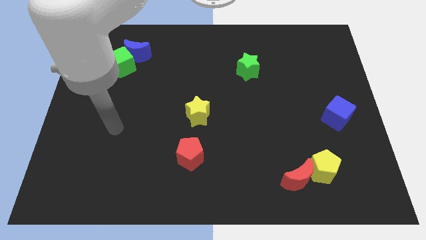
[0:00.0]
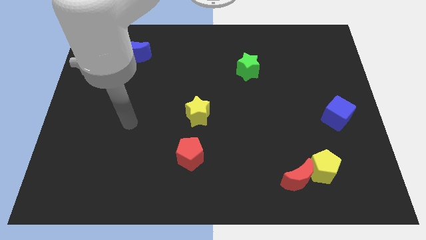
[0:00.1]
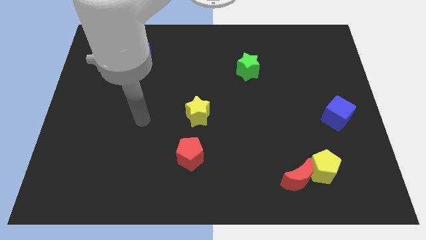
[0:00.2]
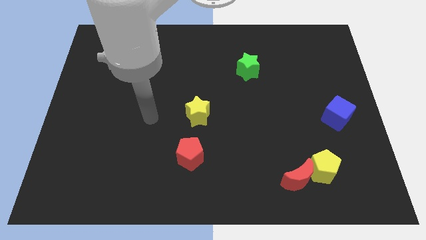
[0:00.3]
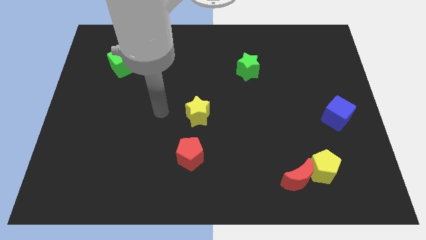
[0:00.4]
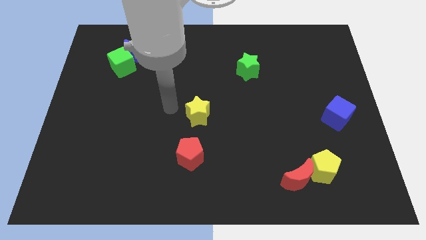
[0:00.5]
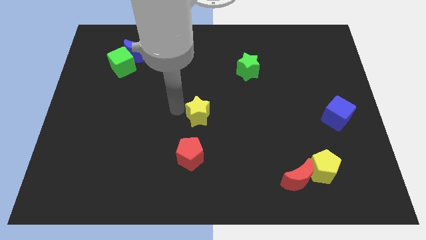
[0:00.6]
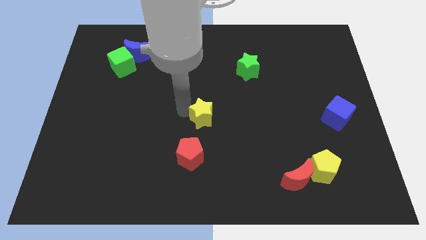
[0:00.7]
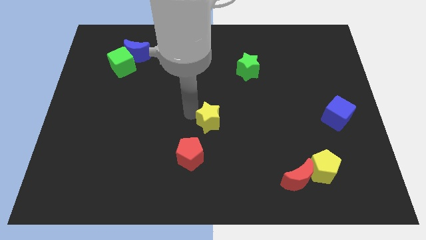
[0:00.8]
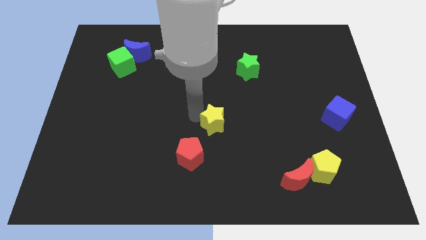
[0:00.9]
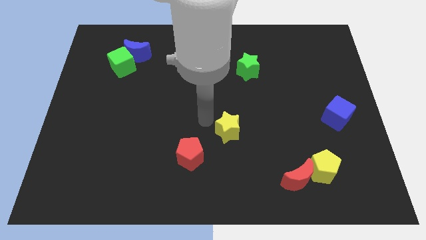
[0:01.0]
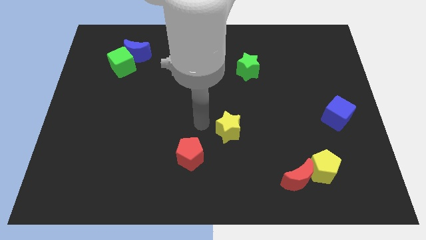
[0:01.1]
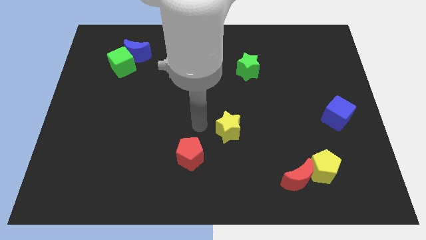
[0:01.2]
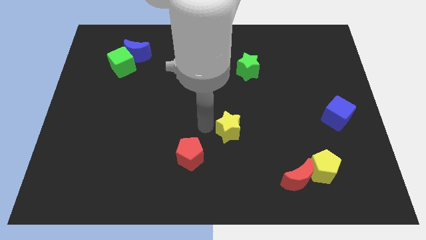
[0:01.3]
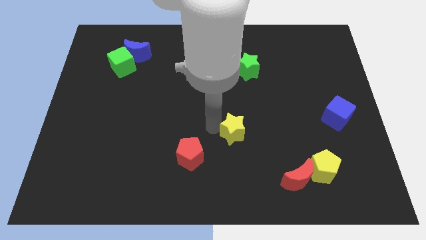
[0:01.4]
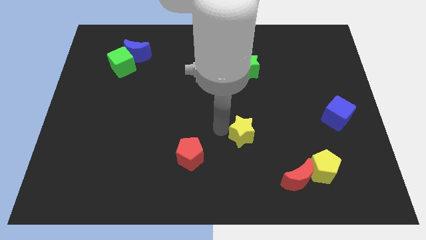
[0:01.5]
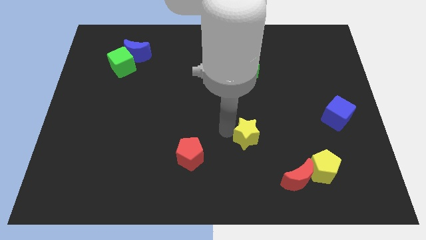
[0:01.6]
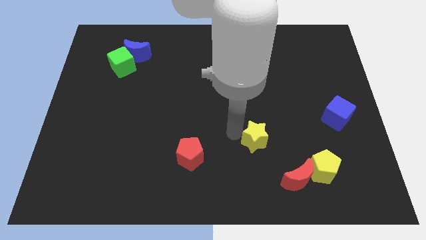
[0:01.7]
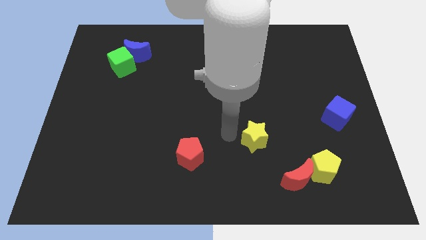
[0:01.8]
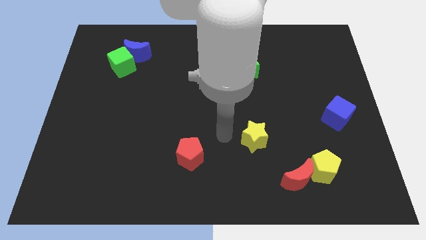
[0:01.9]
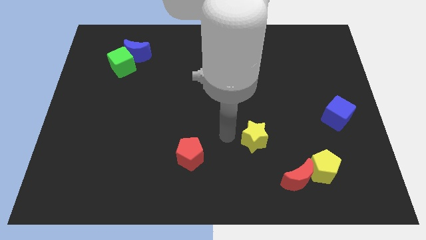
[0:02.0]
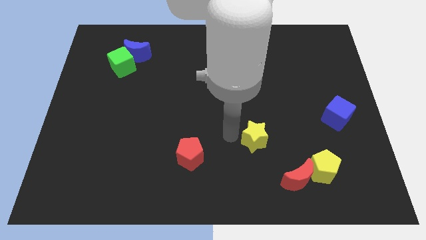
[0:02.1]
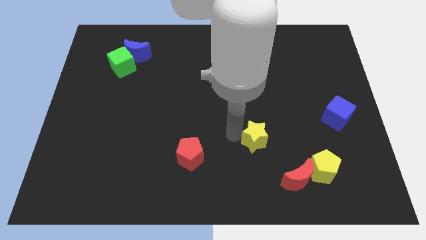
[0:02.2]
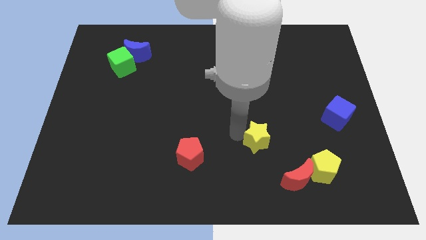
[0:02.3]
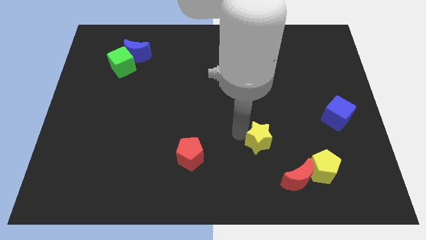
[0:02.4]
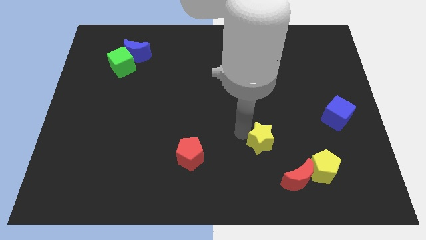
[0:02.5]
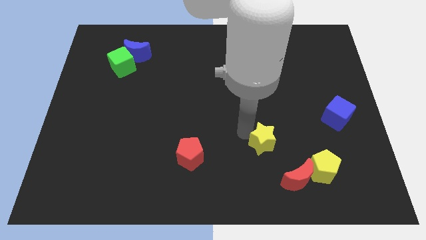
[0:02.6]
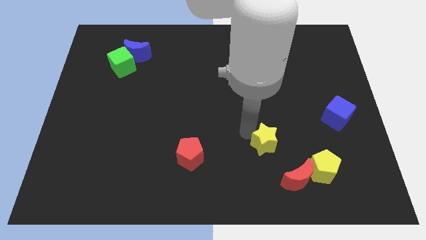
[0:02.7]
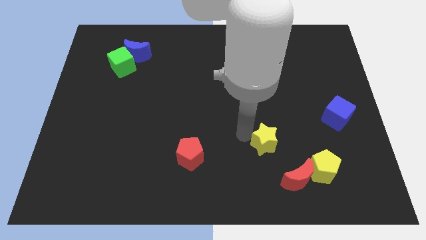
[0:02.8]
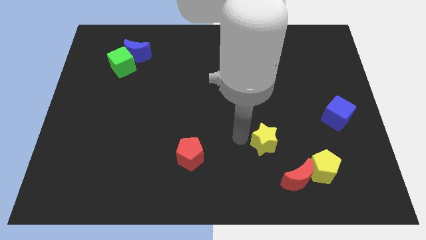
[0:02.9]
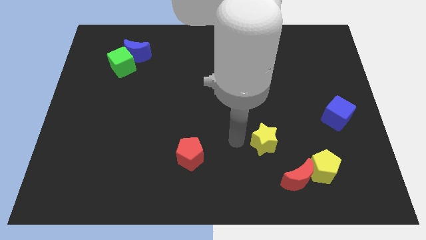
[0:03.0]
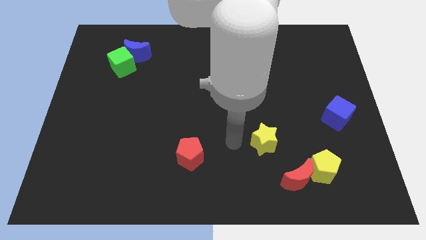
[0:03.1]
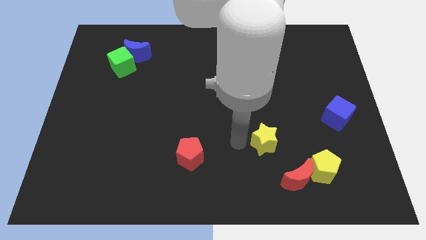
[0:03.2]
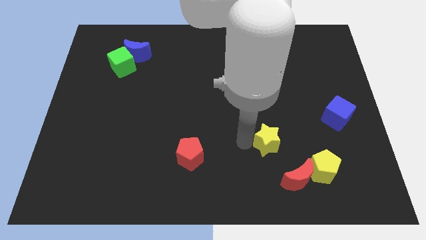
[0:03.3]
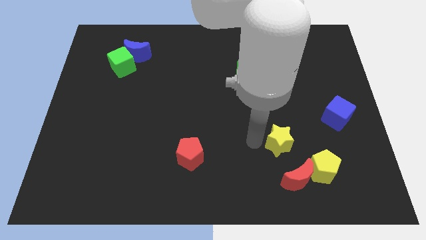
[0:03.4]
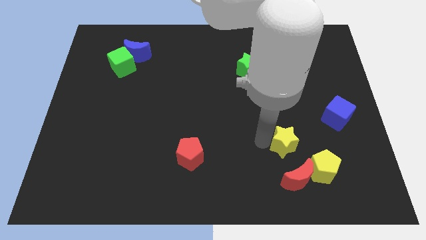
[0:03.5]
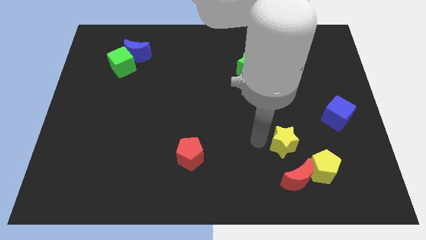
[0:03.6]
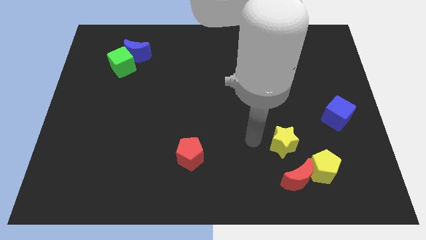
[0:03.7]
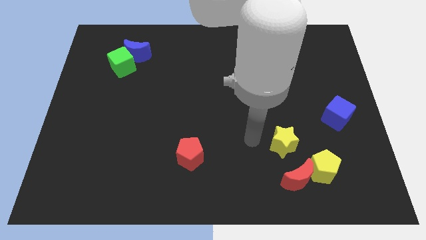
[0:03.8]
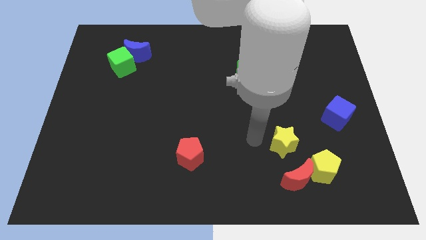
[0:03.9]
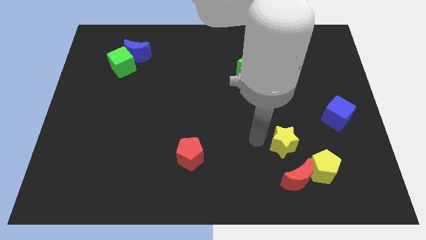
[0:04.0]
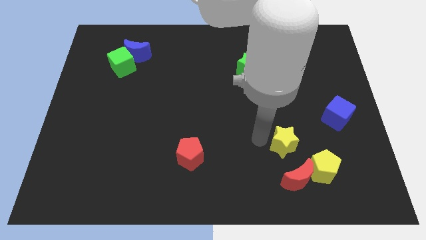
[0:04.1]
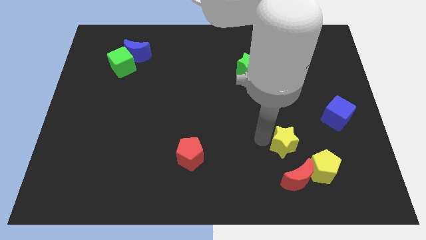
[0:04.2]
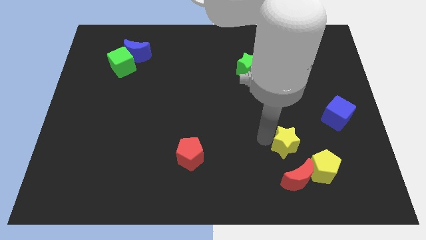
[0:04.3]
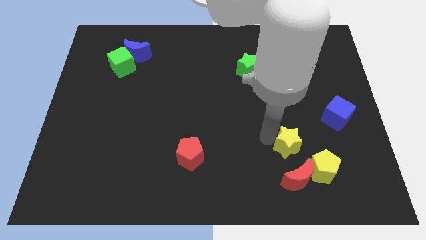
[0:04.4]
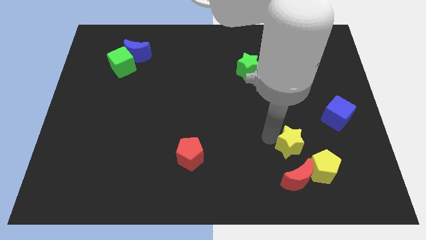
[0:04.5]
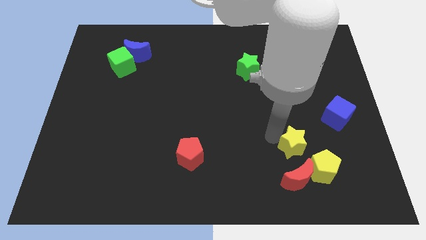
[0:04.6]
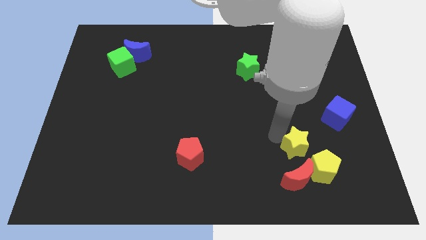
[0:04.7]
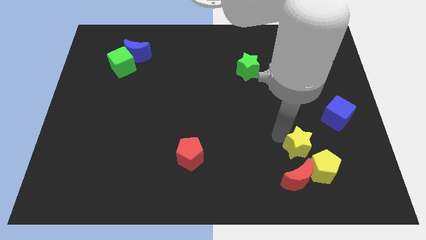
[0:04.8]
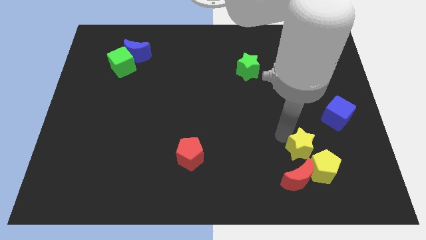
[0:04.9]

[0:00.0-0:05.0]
slide the yellow star to the top right side of the red moon

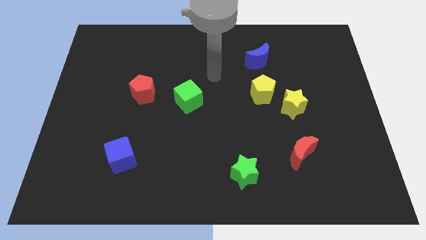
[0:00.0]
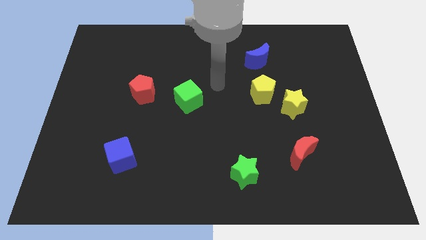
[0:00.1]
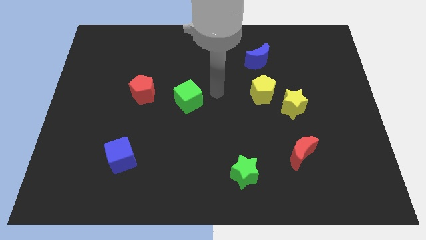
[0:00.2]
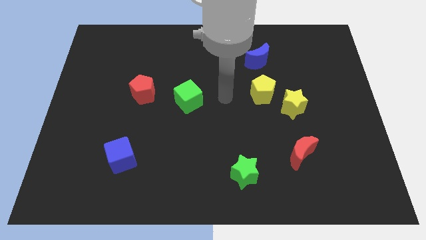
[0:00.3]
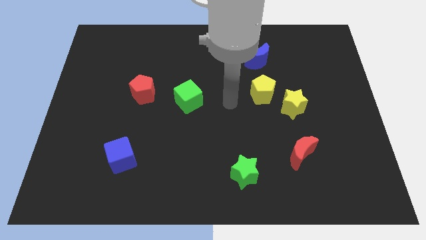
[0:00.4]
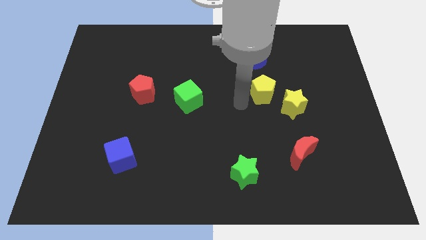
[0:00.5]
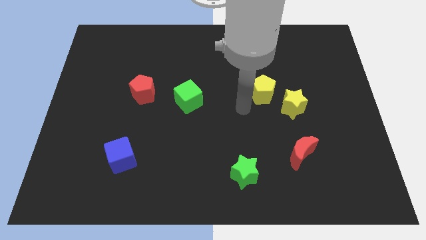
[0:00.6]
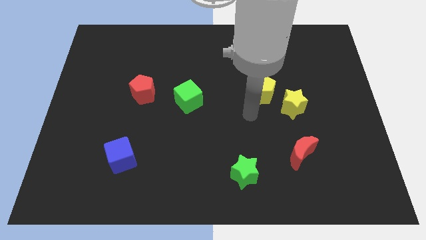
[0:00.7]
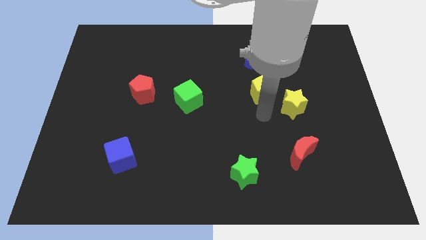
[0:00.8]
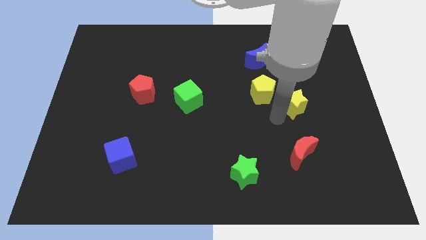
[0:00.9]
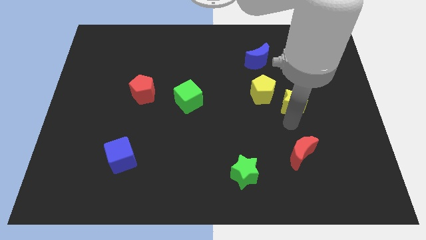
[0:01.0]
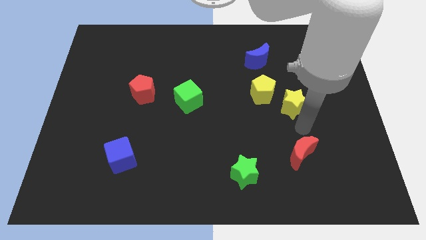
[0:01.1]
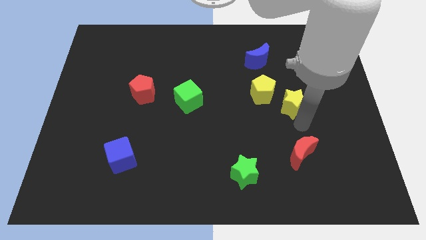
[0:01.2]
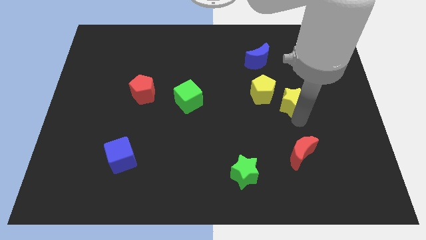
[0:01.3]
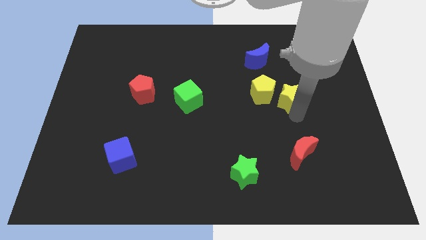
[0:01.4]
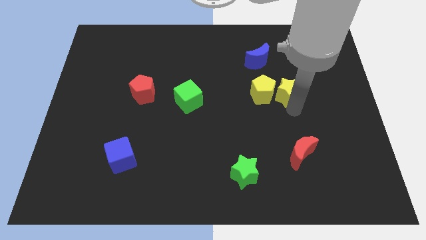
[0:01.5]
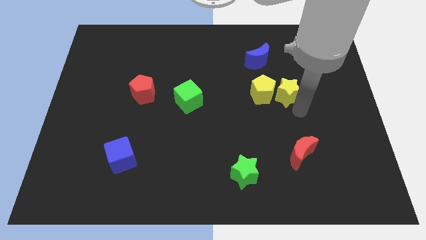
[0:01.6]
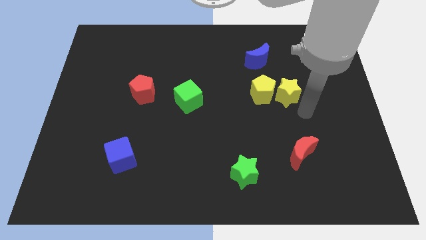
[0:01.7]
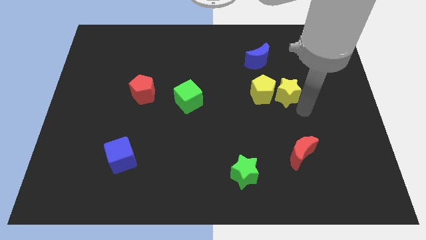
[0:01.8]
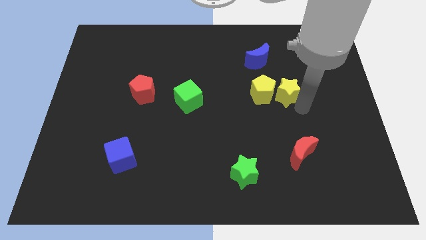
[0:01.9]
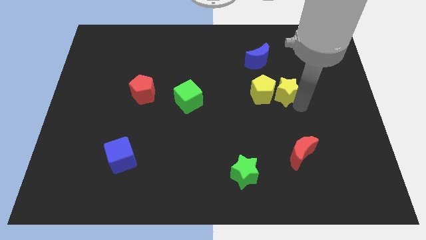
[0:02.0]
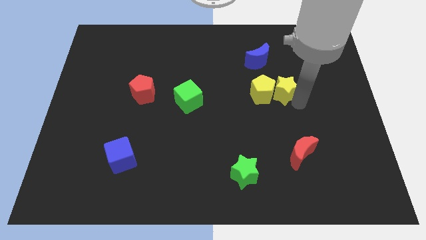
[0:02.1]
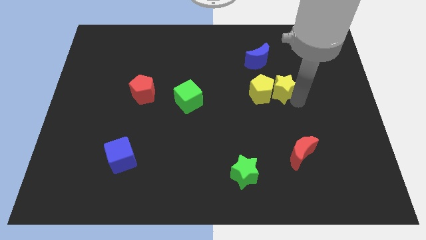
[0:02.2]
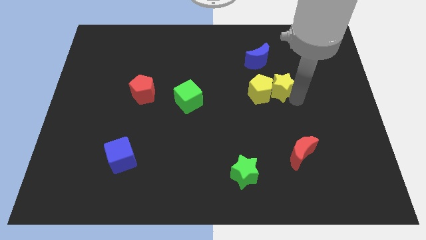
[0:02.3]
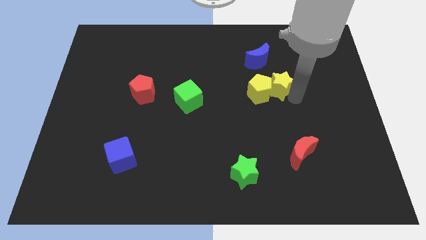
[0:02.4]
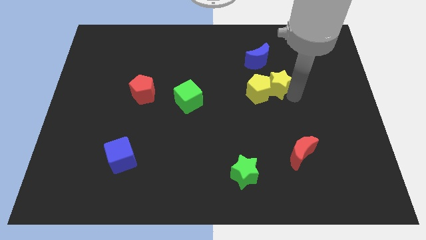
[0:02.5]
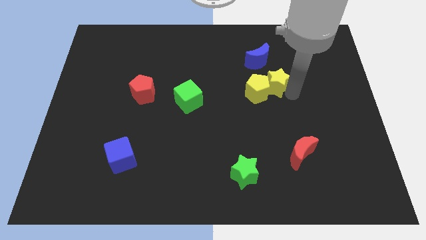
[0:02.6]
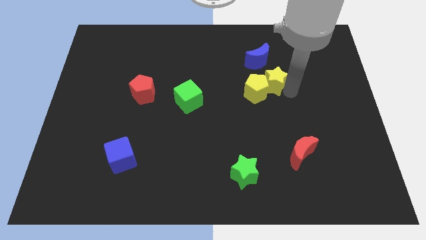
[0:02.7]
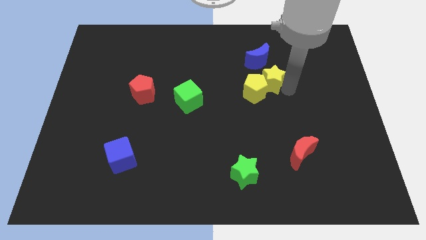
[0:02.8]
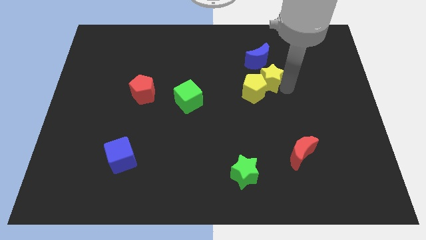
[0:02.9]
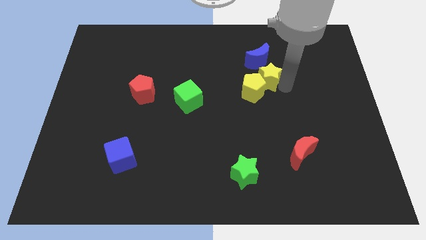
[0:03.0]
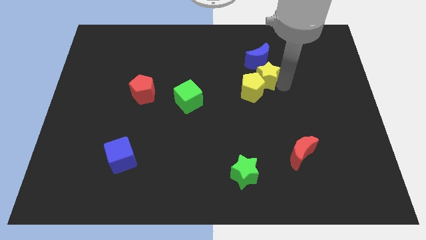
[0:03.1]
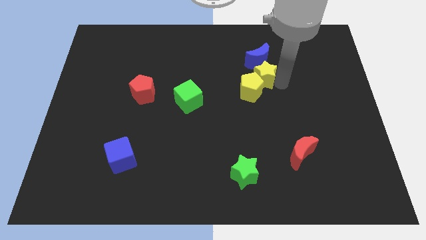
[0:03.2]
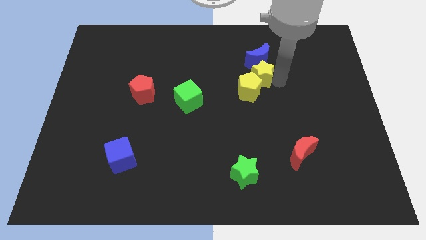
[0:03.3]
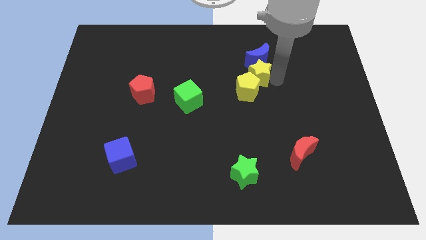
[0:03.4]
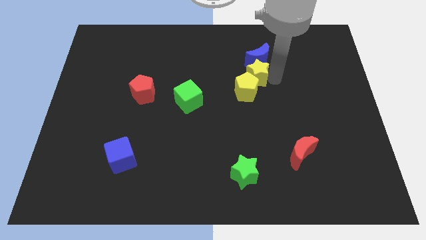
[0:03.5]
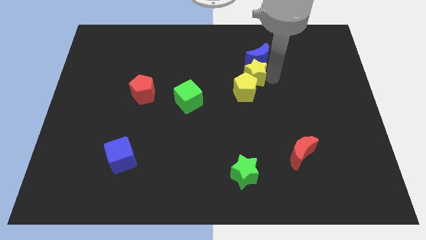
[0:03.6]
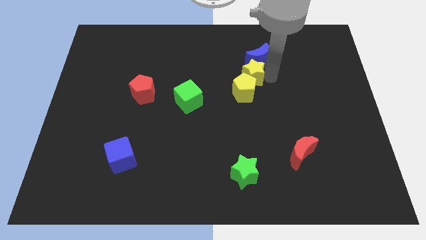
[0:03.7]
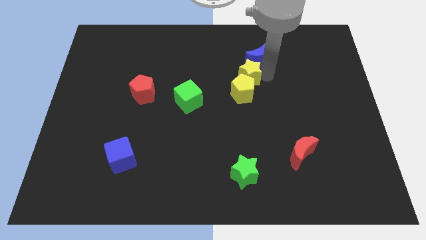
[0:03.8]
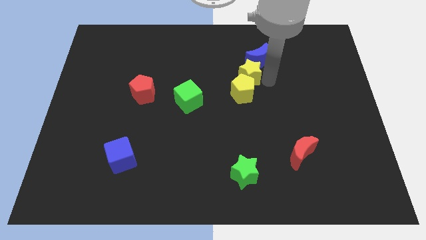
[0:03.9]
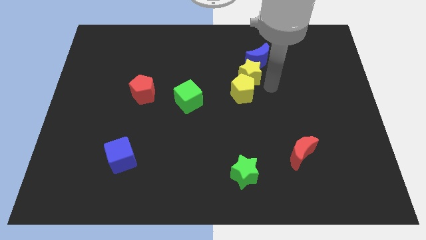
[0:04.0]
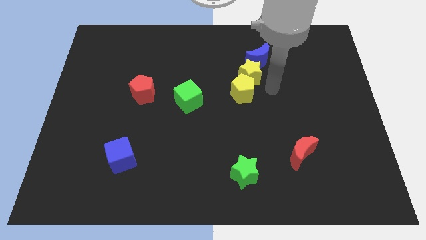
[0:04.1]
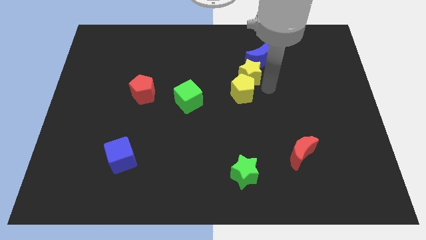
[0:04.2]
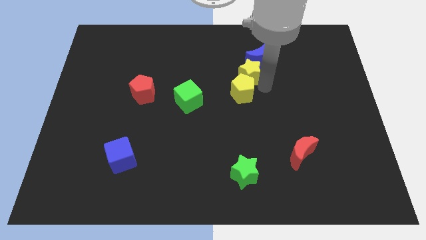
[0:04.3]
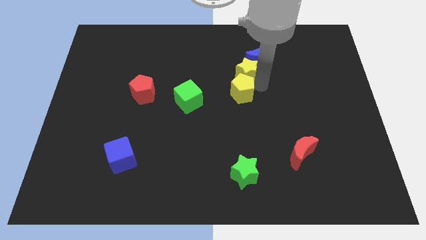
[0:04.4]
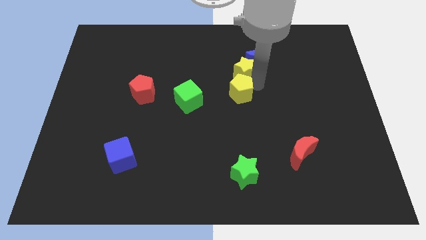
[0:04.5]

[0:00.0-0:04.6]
push the yellow star to the left of the blue moon
